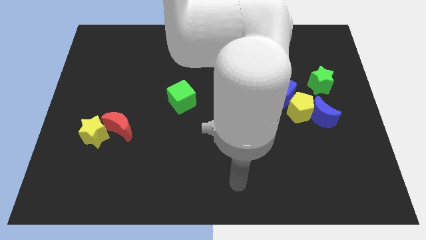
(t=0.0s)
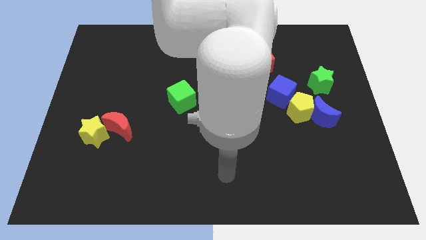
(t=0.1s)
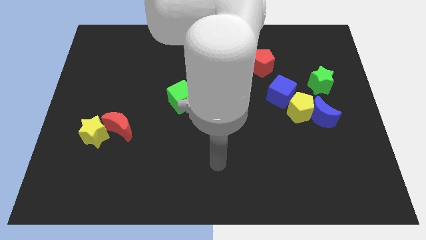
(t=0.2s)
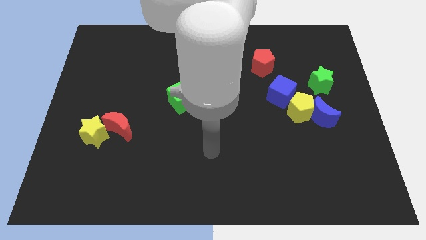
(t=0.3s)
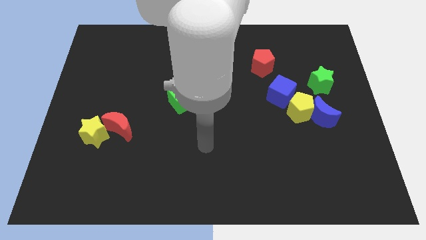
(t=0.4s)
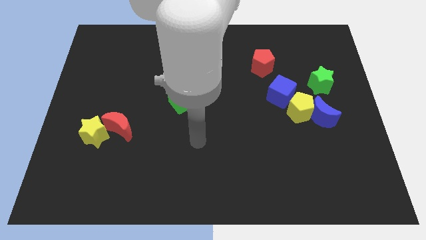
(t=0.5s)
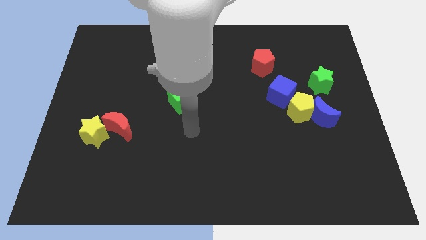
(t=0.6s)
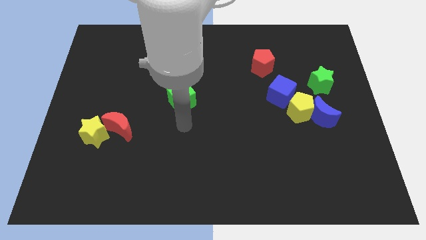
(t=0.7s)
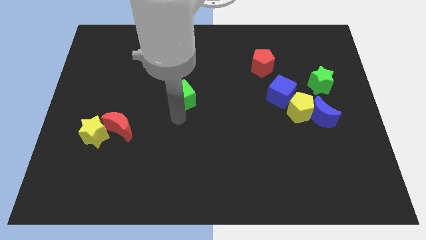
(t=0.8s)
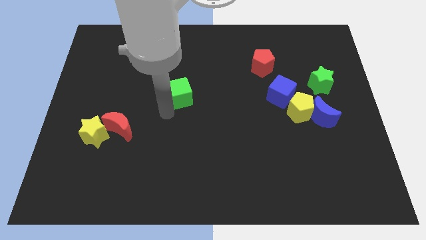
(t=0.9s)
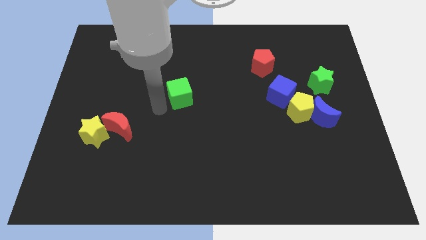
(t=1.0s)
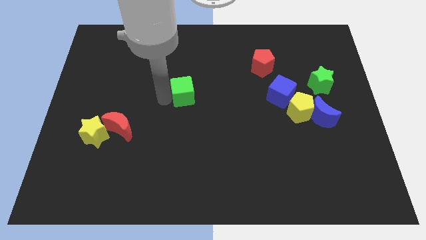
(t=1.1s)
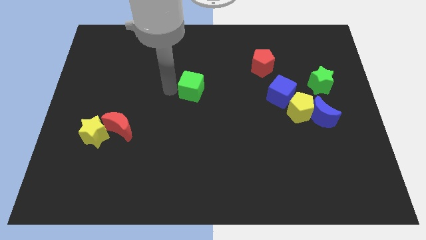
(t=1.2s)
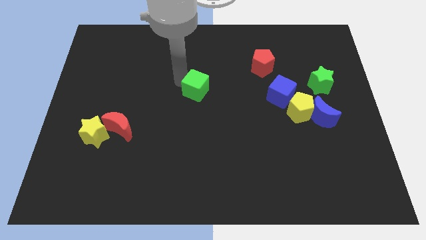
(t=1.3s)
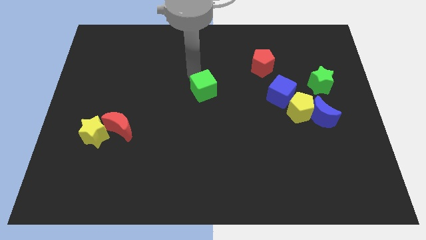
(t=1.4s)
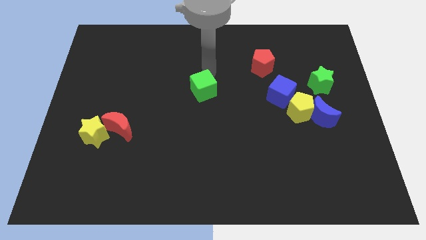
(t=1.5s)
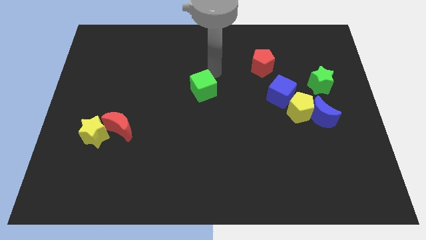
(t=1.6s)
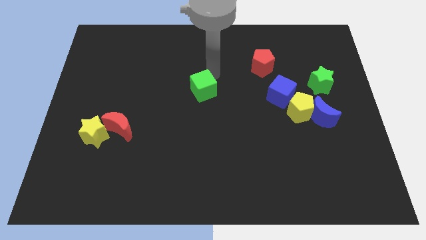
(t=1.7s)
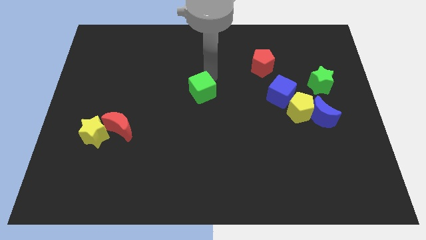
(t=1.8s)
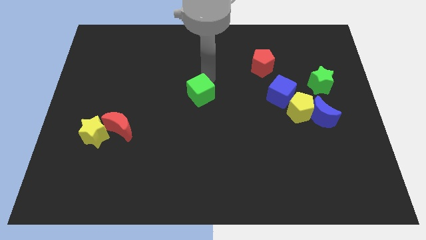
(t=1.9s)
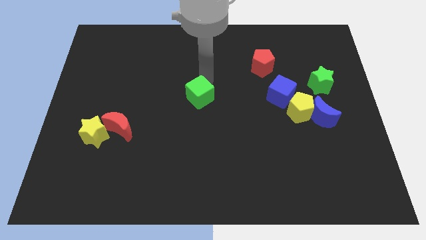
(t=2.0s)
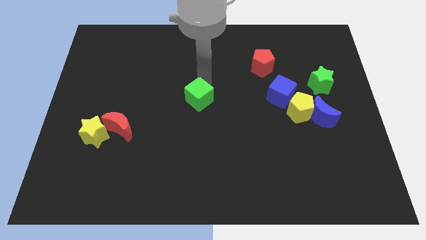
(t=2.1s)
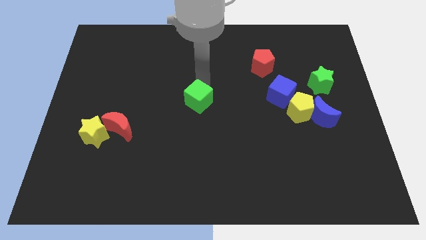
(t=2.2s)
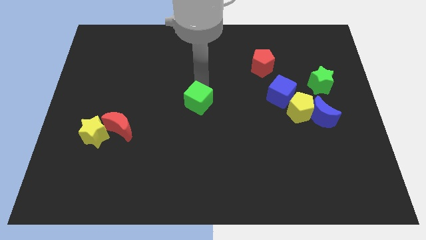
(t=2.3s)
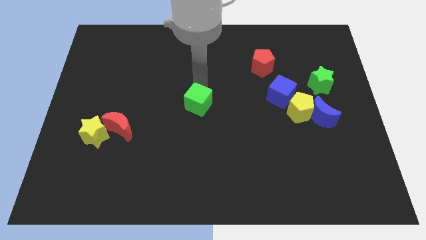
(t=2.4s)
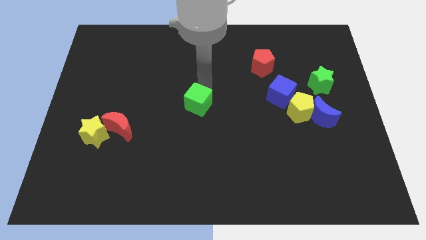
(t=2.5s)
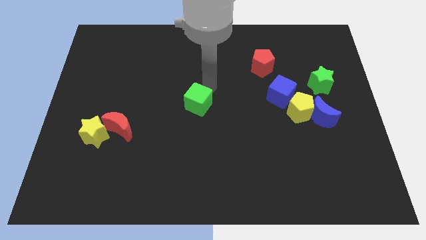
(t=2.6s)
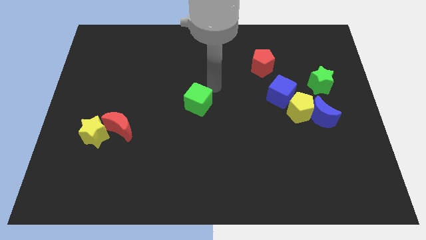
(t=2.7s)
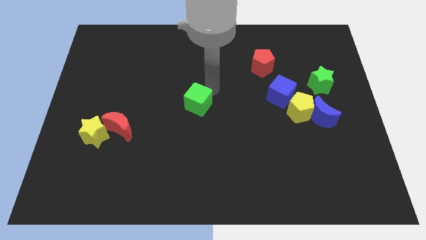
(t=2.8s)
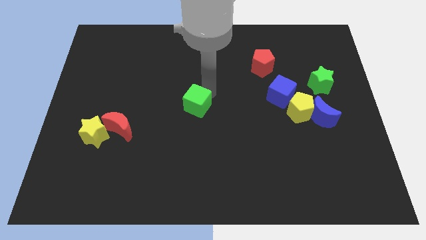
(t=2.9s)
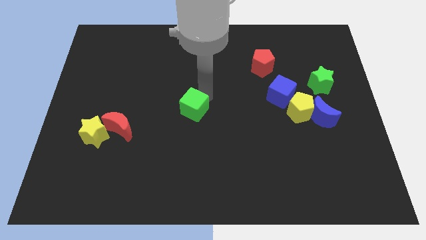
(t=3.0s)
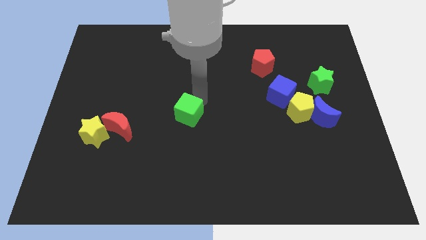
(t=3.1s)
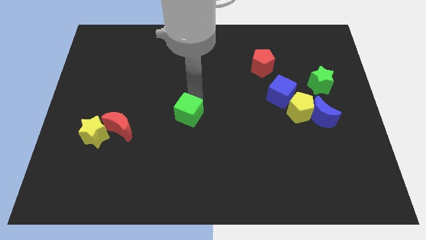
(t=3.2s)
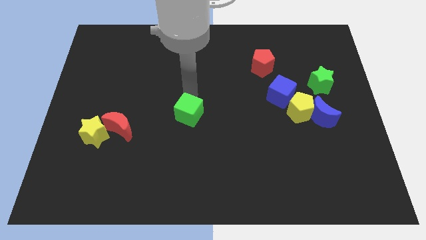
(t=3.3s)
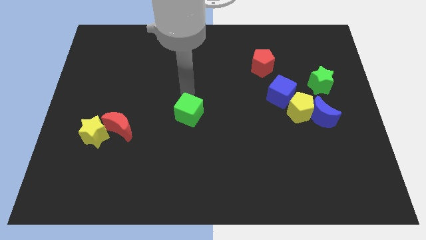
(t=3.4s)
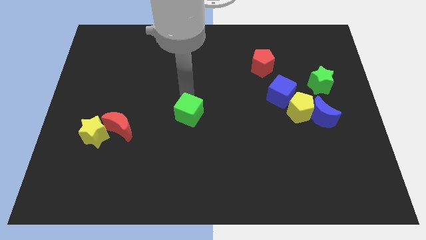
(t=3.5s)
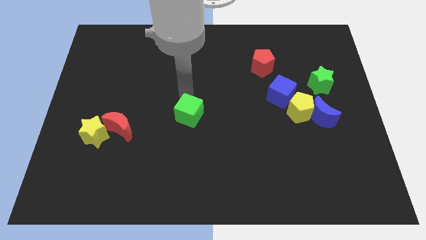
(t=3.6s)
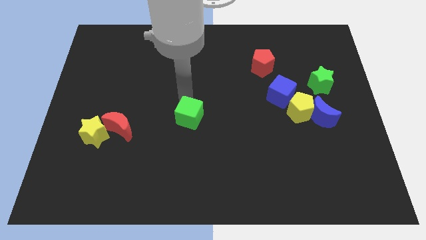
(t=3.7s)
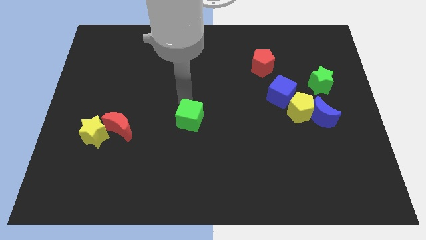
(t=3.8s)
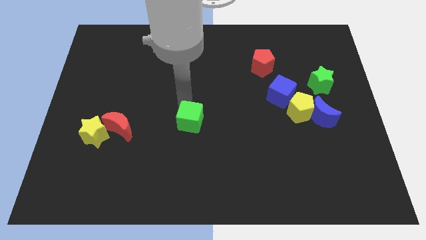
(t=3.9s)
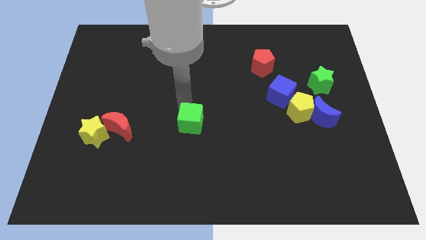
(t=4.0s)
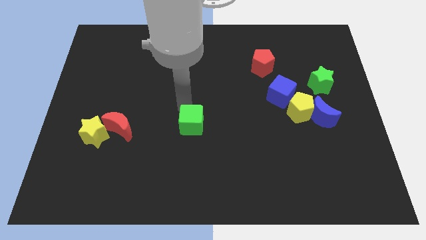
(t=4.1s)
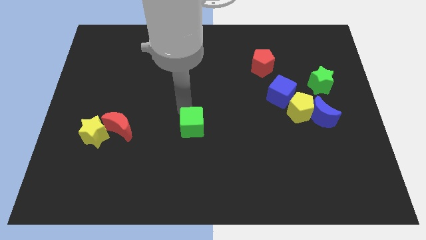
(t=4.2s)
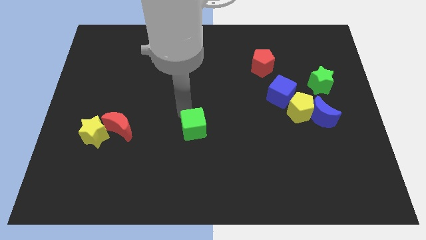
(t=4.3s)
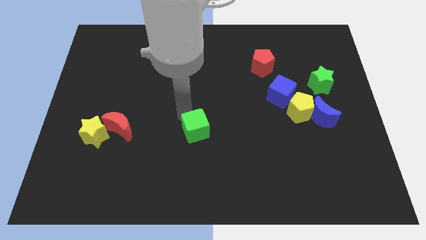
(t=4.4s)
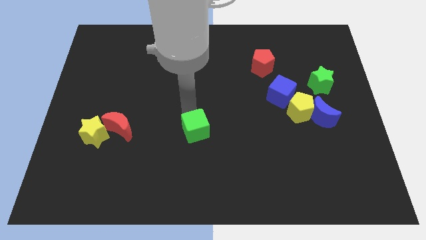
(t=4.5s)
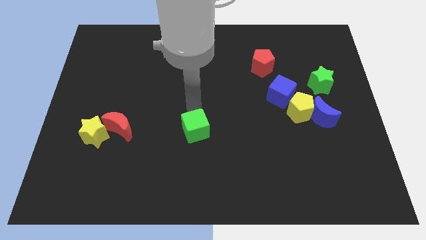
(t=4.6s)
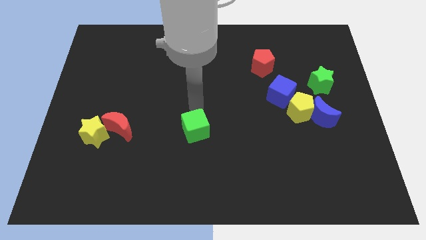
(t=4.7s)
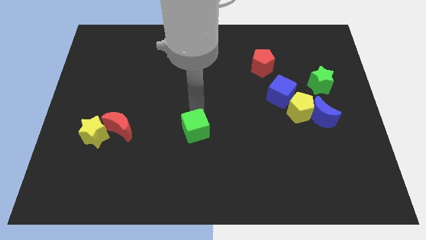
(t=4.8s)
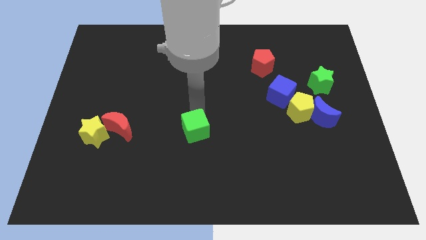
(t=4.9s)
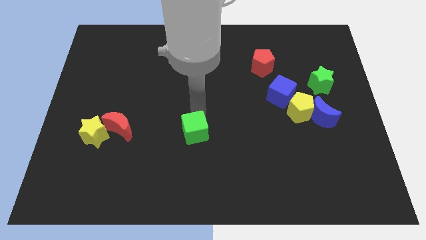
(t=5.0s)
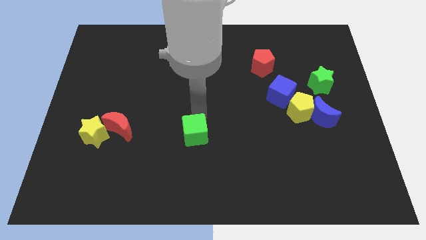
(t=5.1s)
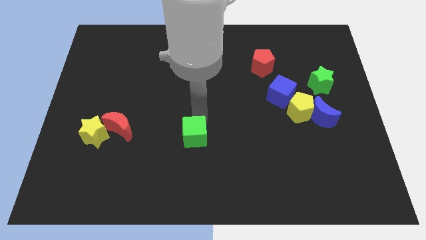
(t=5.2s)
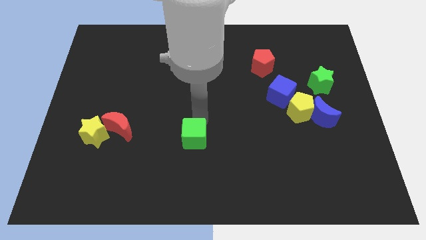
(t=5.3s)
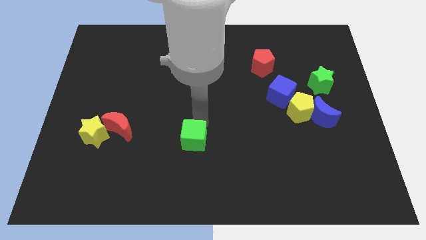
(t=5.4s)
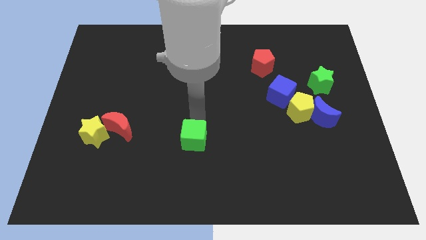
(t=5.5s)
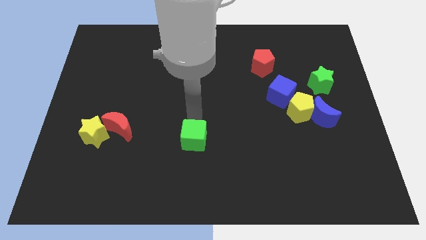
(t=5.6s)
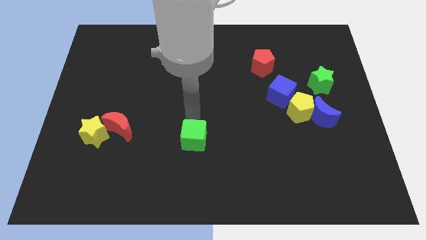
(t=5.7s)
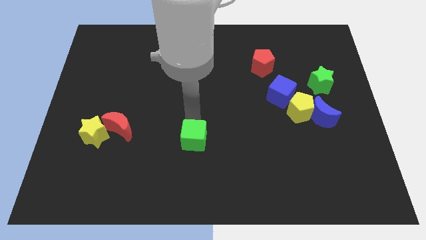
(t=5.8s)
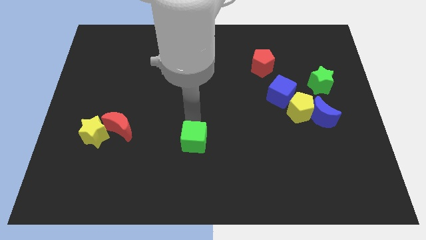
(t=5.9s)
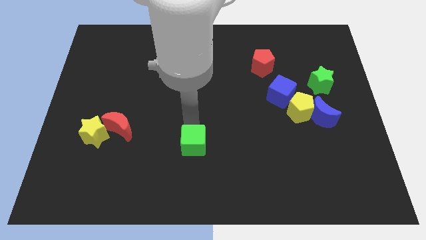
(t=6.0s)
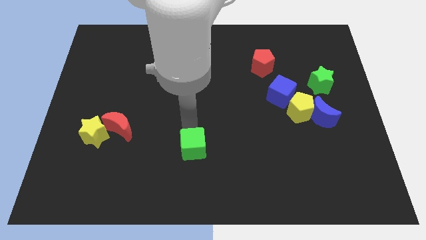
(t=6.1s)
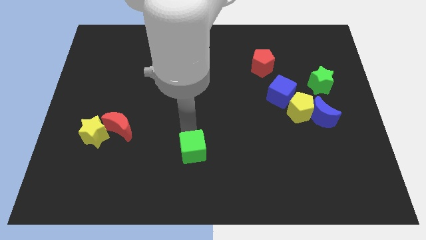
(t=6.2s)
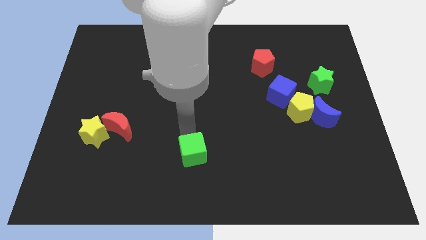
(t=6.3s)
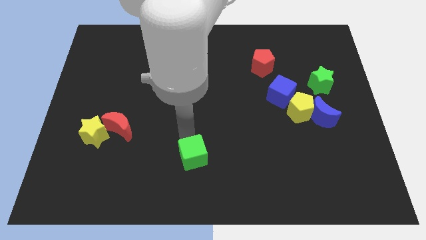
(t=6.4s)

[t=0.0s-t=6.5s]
push the green cube to the bottom

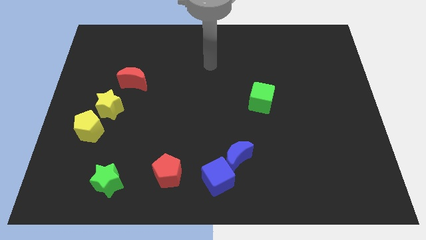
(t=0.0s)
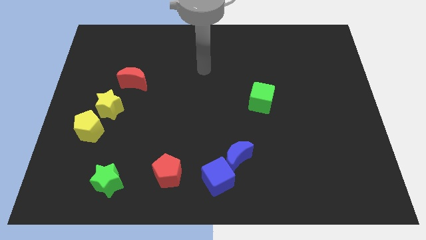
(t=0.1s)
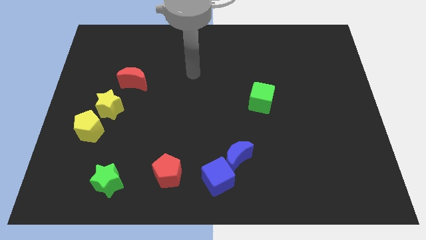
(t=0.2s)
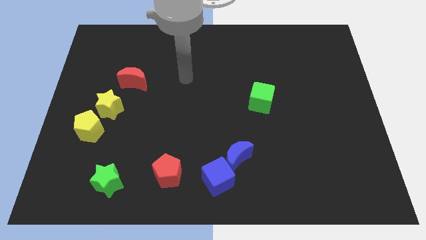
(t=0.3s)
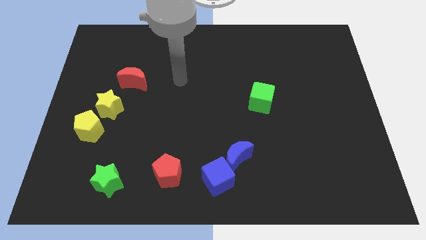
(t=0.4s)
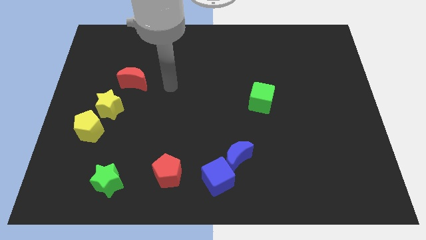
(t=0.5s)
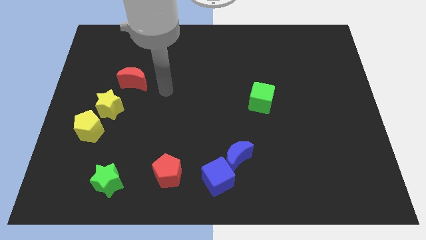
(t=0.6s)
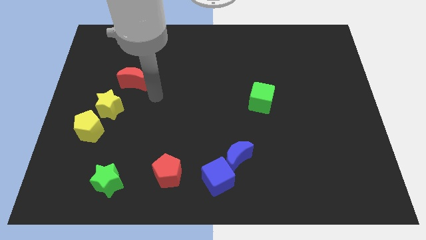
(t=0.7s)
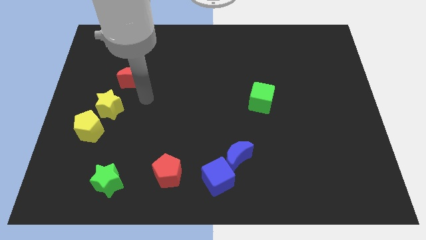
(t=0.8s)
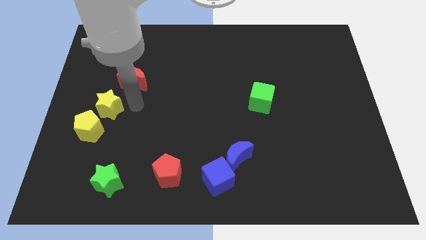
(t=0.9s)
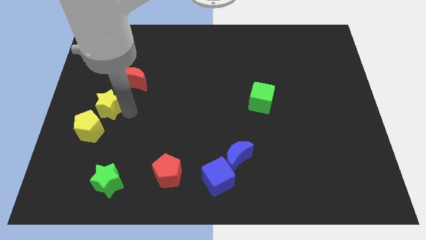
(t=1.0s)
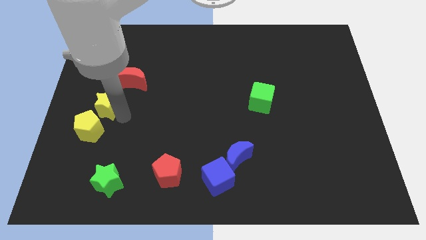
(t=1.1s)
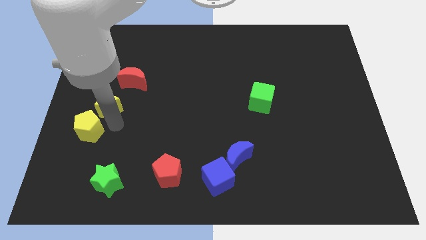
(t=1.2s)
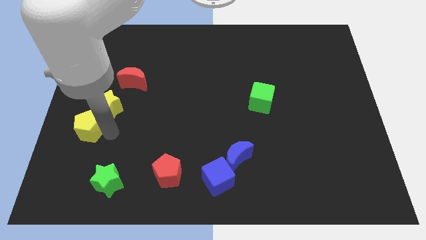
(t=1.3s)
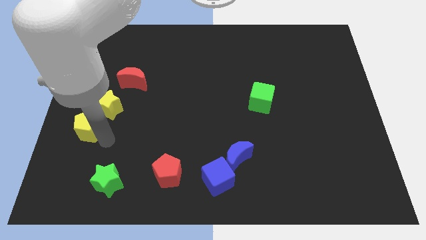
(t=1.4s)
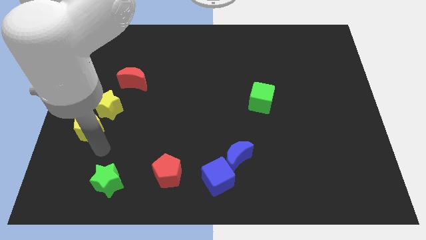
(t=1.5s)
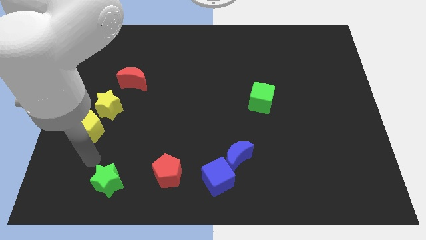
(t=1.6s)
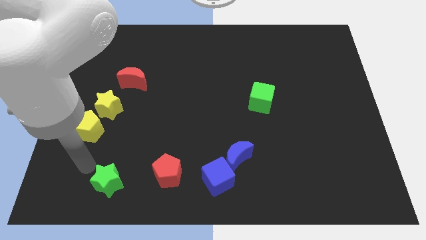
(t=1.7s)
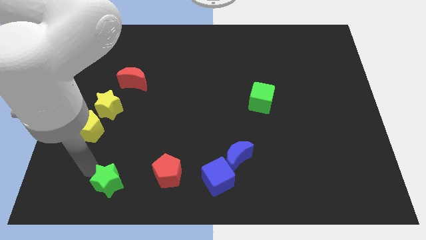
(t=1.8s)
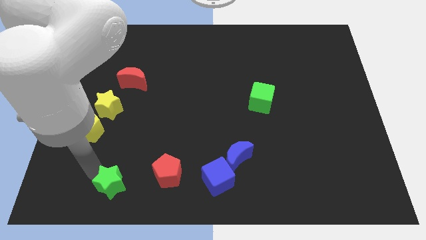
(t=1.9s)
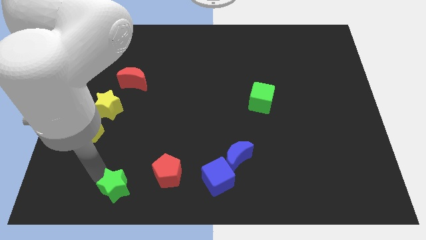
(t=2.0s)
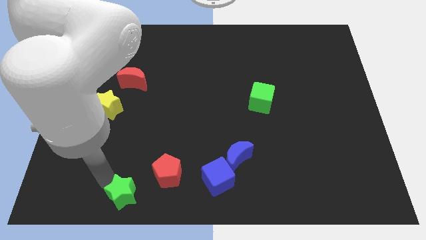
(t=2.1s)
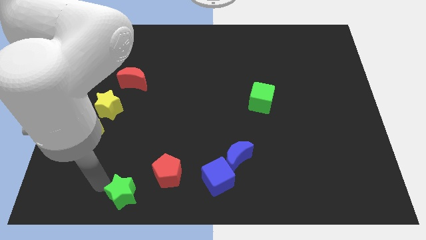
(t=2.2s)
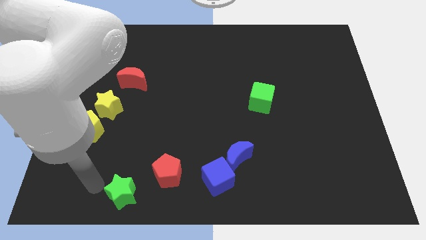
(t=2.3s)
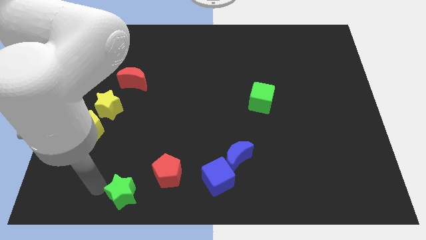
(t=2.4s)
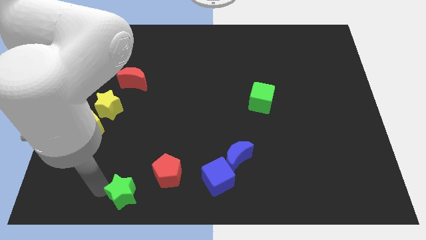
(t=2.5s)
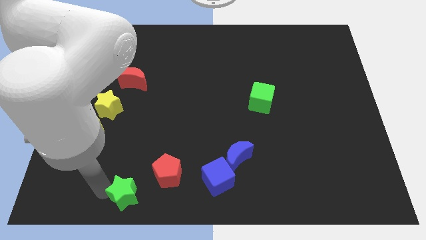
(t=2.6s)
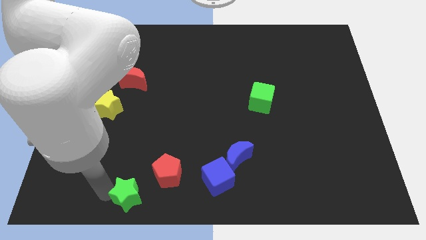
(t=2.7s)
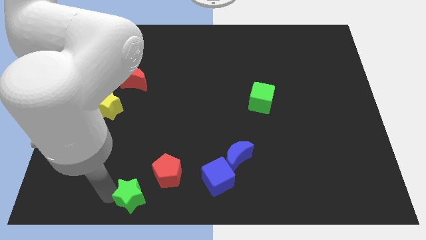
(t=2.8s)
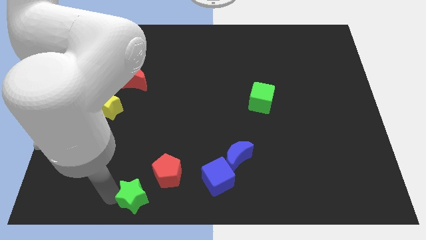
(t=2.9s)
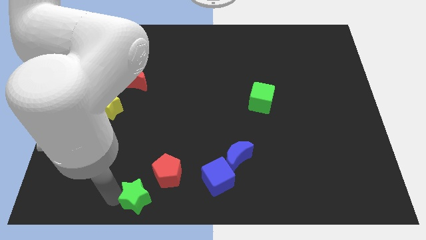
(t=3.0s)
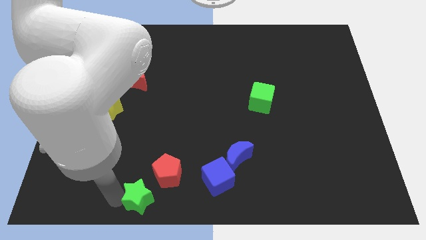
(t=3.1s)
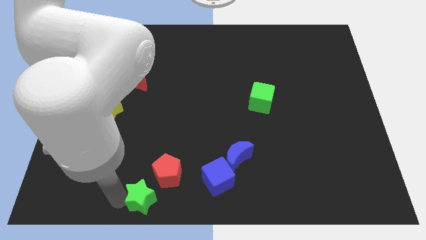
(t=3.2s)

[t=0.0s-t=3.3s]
push the green star to the bottom
